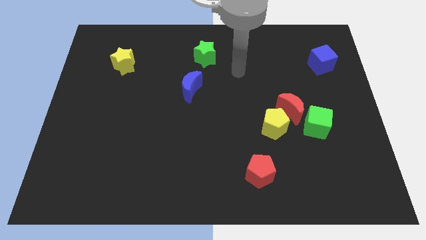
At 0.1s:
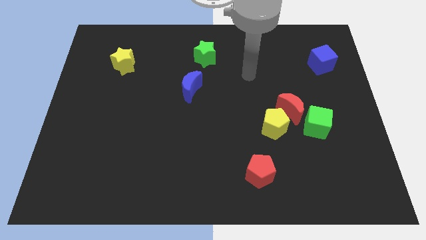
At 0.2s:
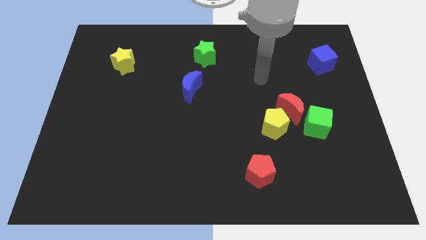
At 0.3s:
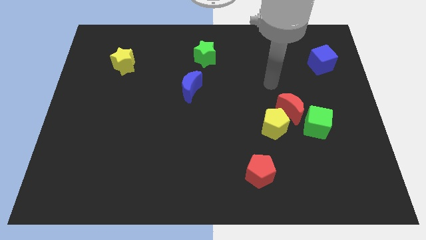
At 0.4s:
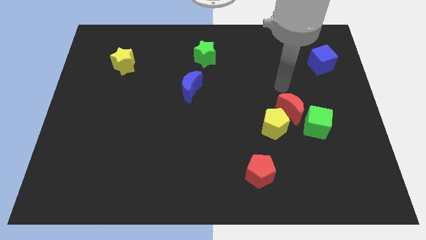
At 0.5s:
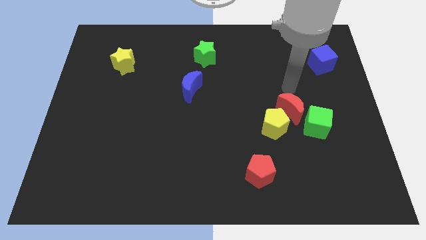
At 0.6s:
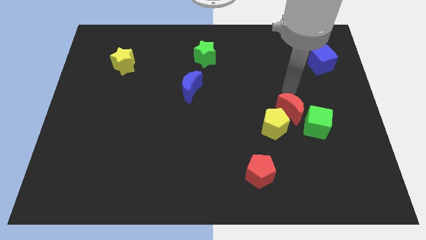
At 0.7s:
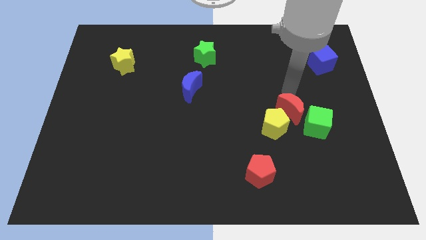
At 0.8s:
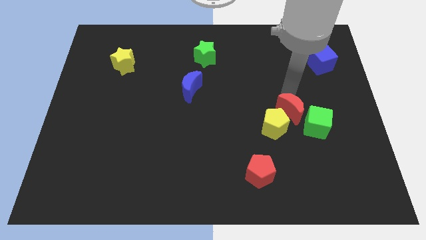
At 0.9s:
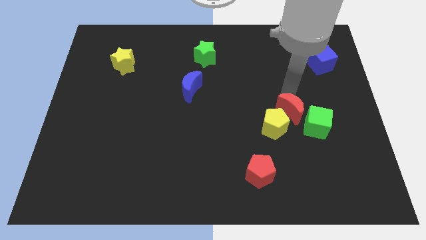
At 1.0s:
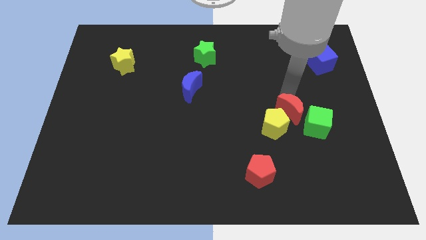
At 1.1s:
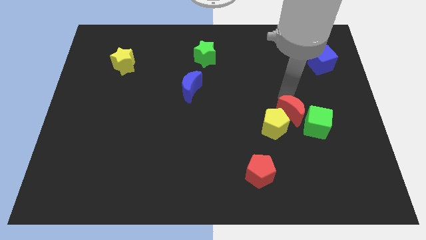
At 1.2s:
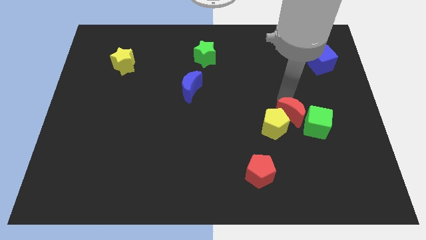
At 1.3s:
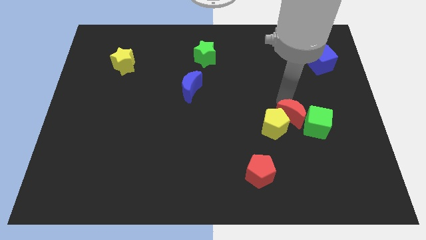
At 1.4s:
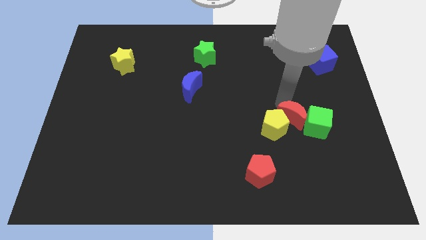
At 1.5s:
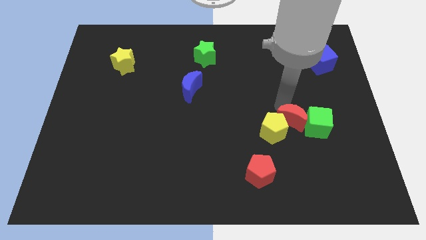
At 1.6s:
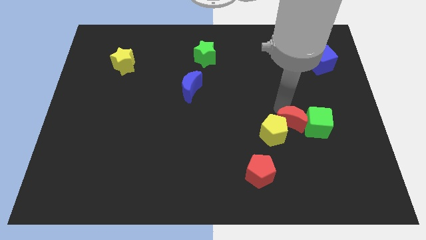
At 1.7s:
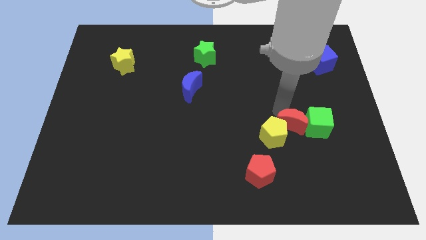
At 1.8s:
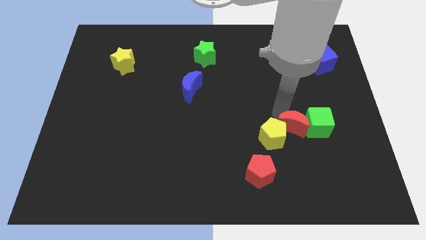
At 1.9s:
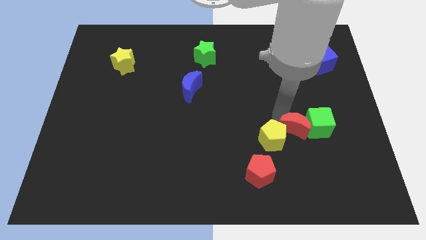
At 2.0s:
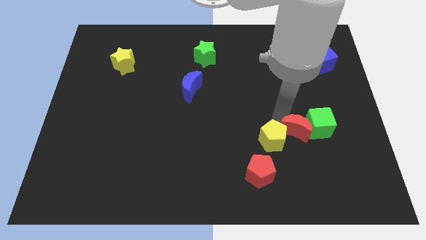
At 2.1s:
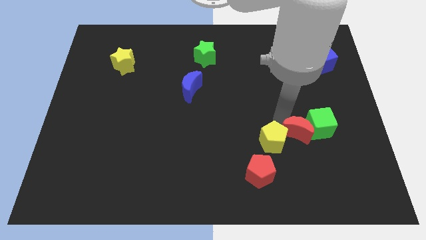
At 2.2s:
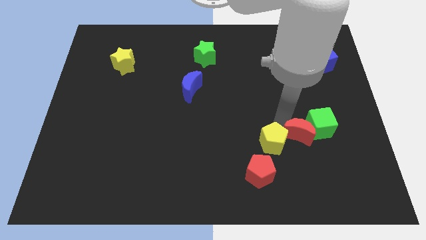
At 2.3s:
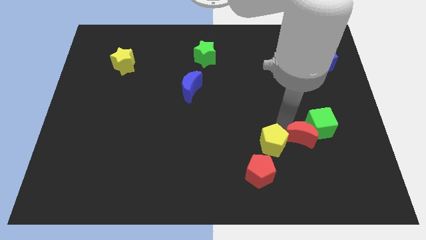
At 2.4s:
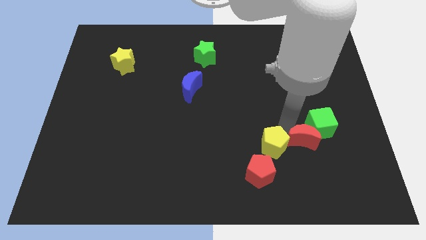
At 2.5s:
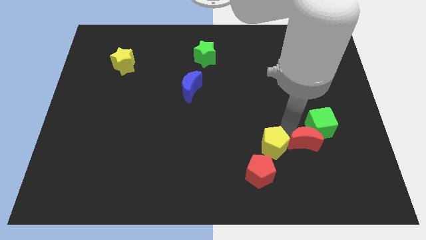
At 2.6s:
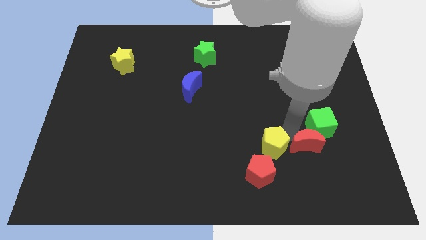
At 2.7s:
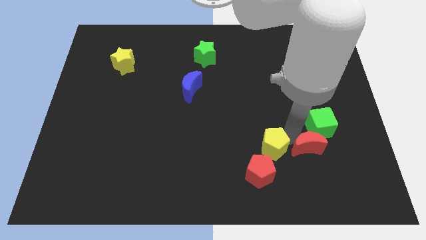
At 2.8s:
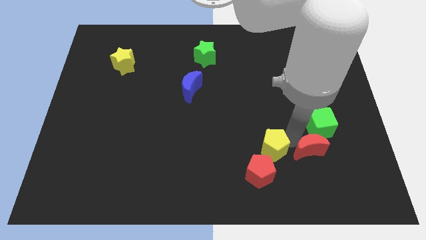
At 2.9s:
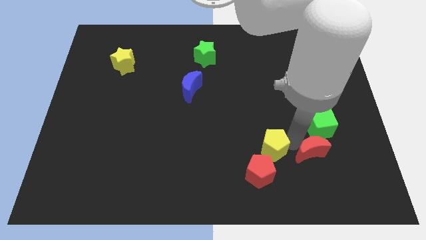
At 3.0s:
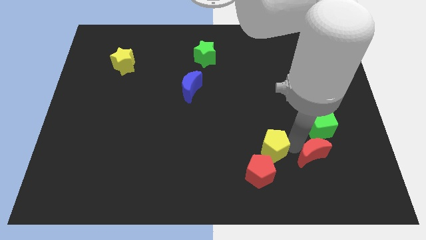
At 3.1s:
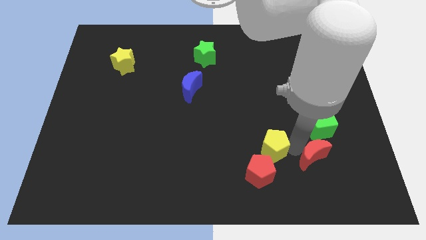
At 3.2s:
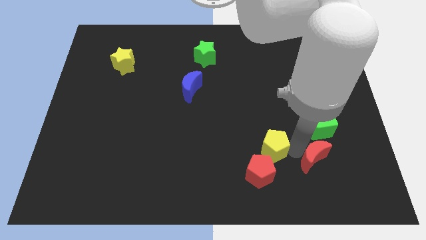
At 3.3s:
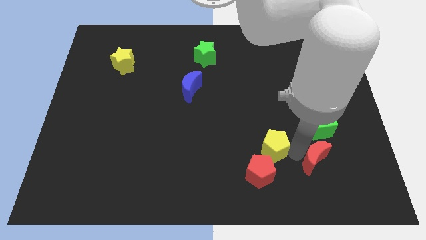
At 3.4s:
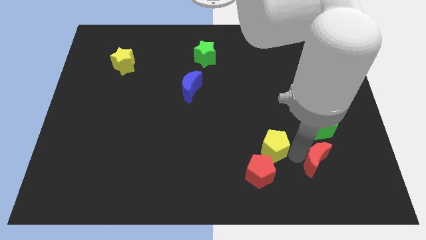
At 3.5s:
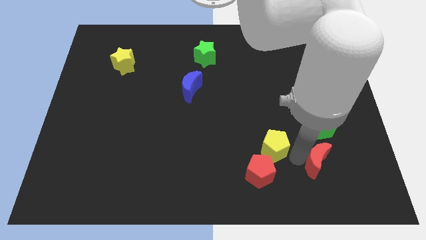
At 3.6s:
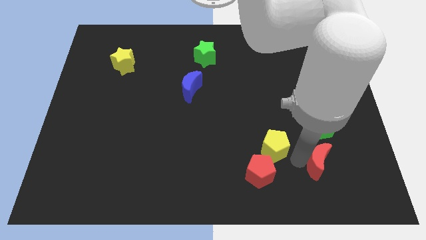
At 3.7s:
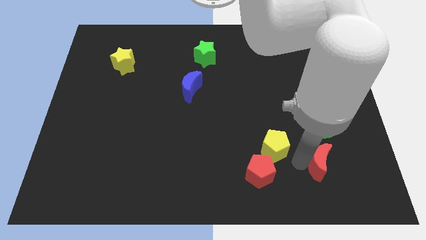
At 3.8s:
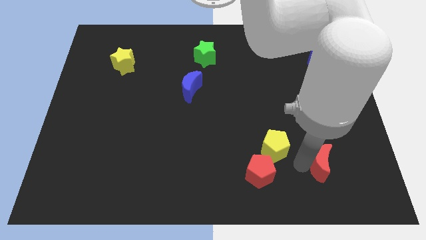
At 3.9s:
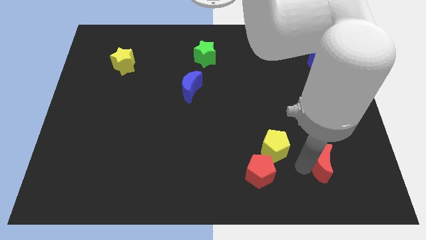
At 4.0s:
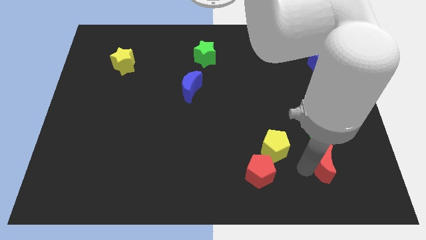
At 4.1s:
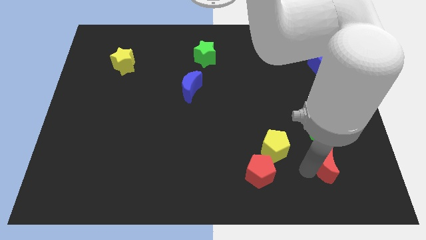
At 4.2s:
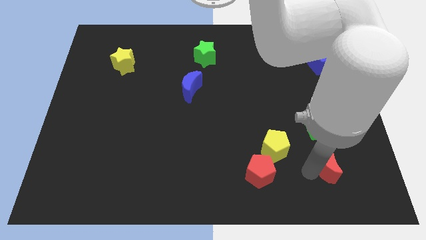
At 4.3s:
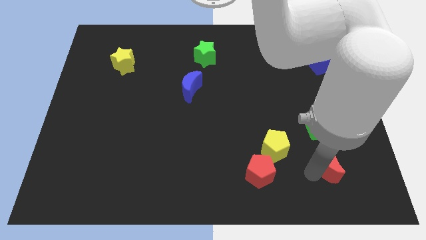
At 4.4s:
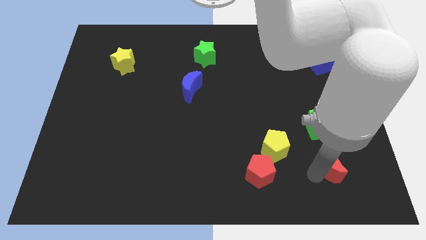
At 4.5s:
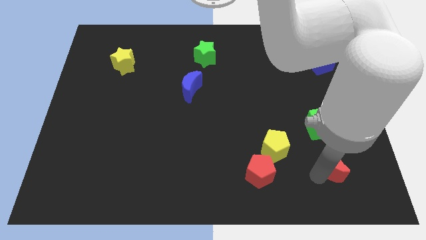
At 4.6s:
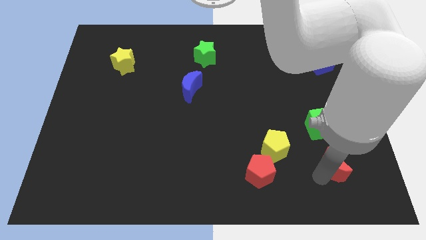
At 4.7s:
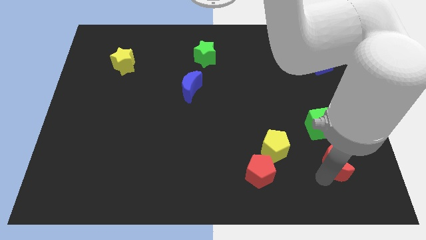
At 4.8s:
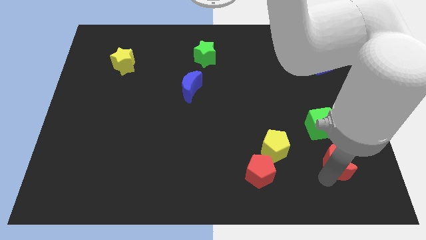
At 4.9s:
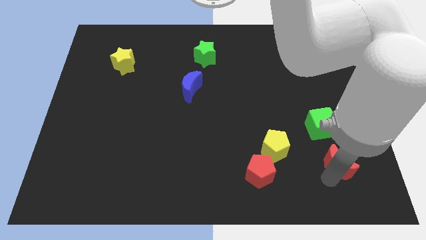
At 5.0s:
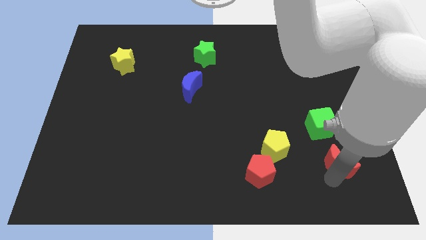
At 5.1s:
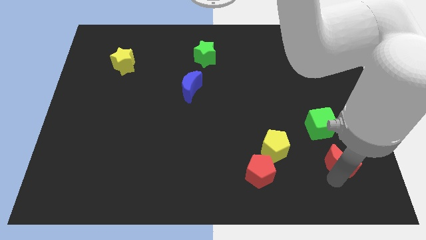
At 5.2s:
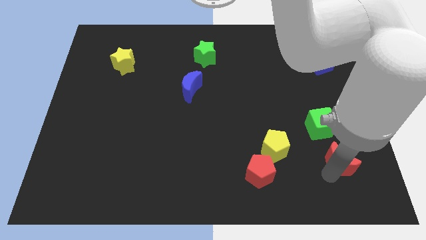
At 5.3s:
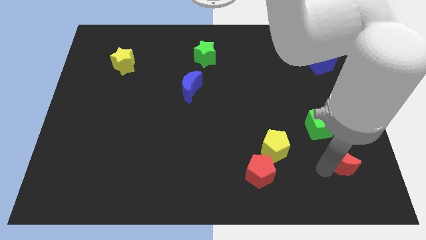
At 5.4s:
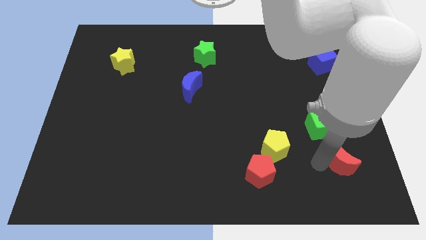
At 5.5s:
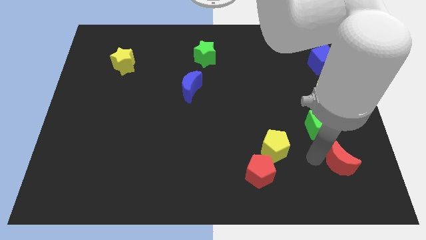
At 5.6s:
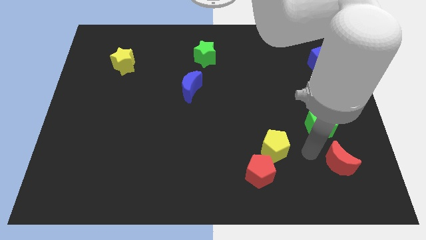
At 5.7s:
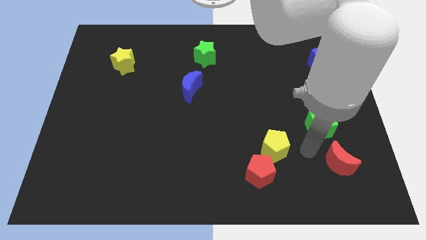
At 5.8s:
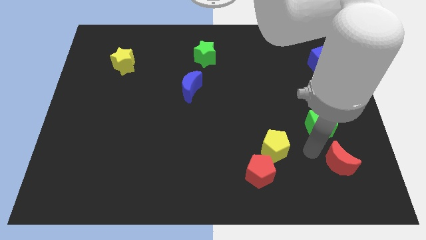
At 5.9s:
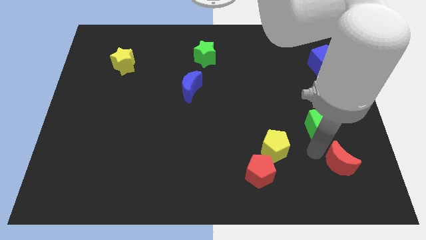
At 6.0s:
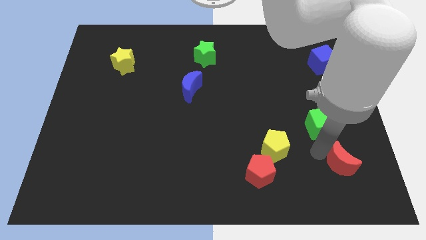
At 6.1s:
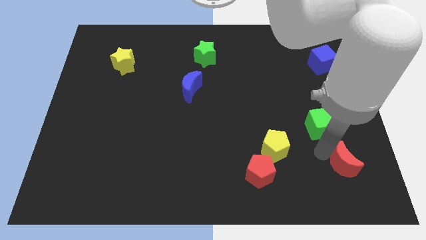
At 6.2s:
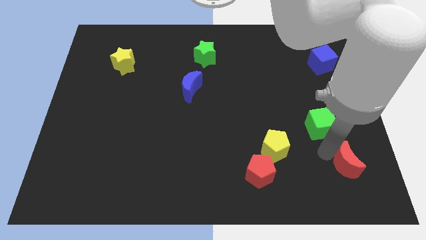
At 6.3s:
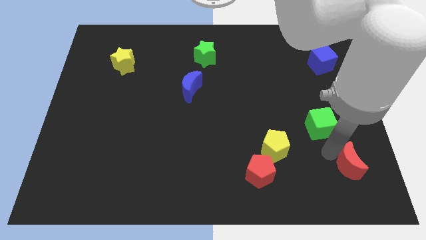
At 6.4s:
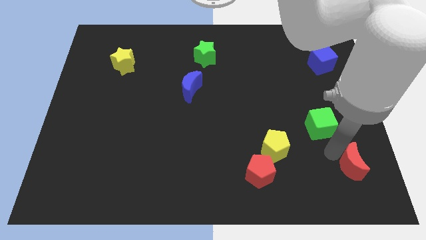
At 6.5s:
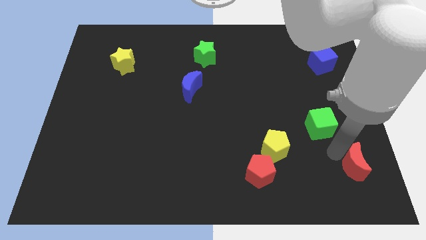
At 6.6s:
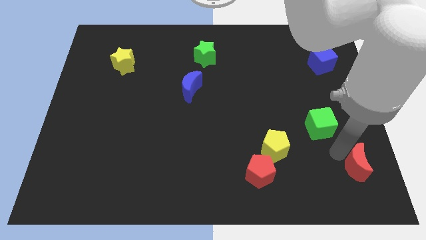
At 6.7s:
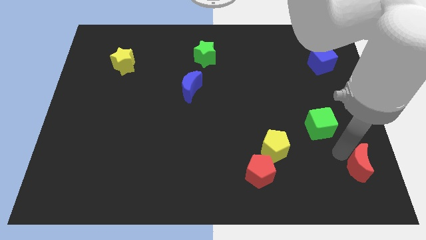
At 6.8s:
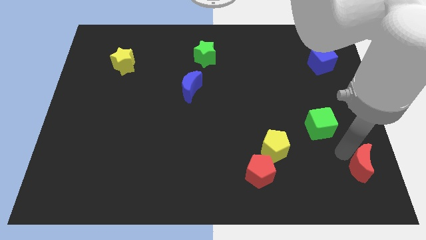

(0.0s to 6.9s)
move the red moon to the bottom right
